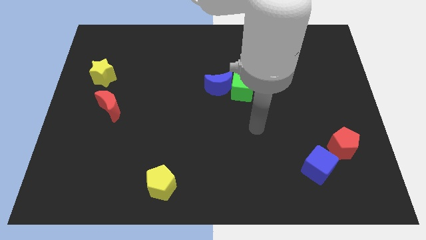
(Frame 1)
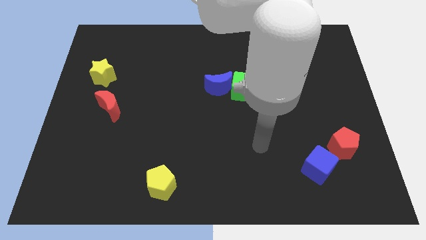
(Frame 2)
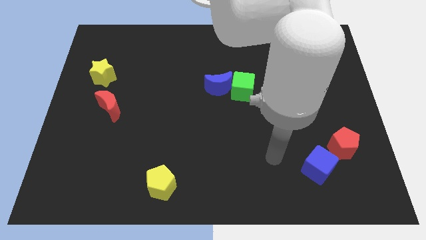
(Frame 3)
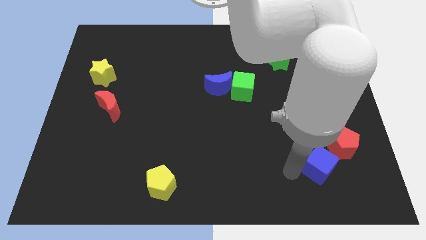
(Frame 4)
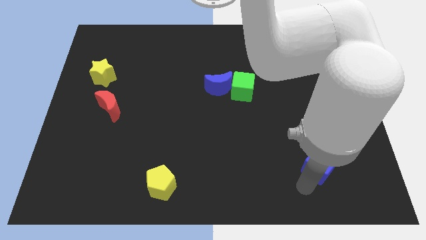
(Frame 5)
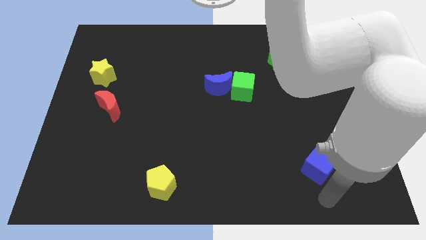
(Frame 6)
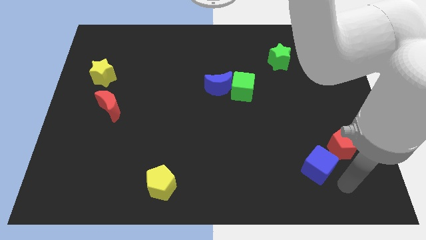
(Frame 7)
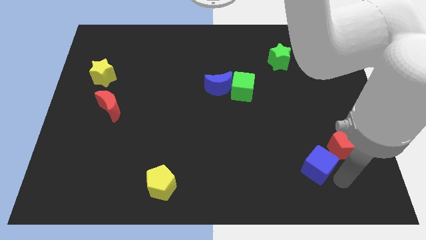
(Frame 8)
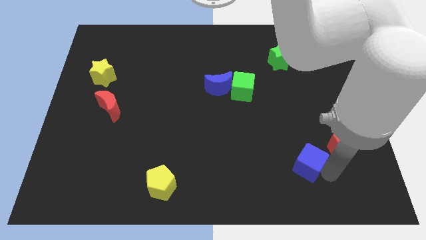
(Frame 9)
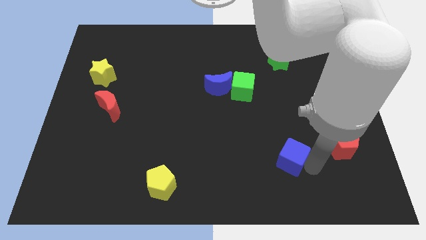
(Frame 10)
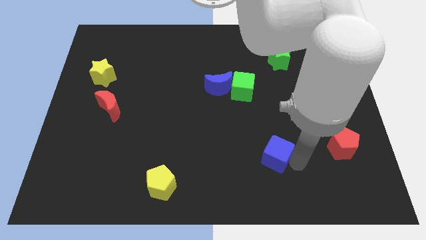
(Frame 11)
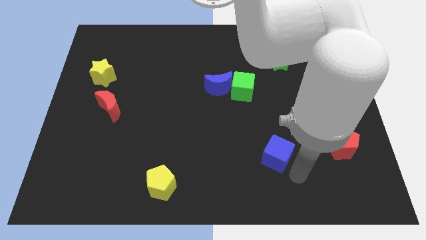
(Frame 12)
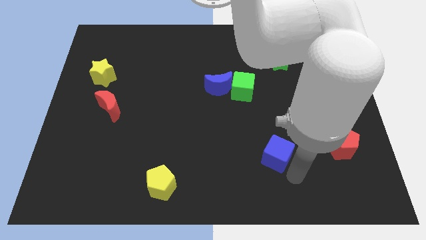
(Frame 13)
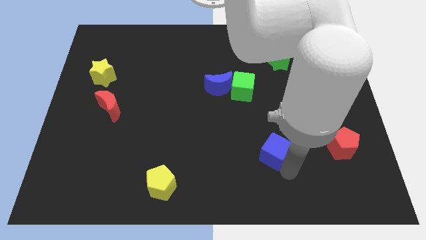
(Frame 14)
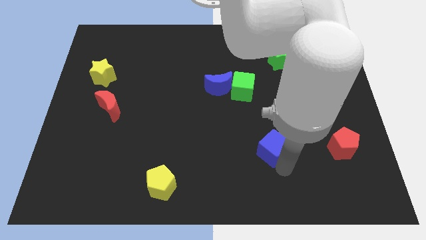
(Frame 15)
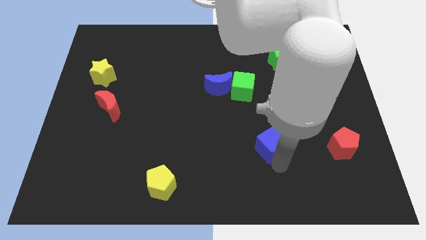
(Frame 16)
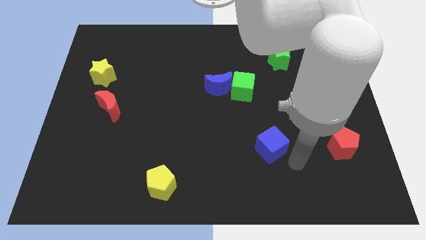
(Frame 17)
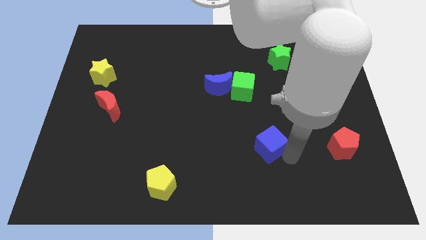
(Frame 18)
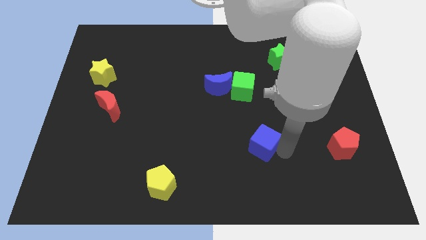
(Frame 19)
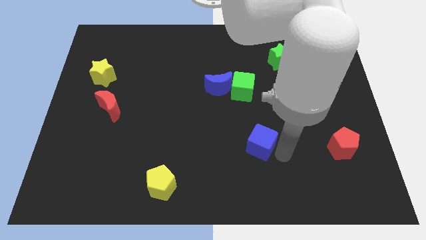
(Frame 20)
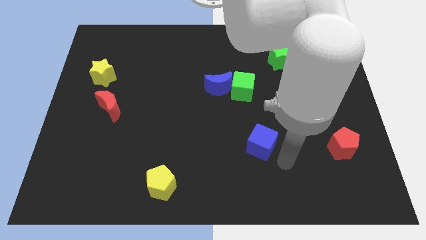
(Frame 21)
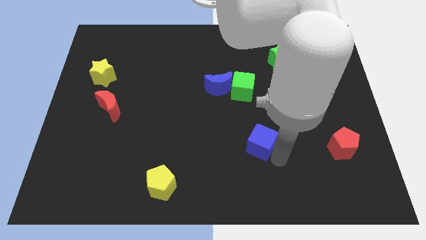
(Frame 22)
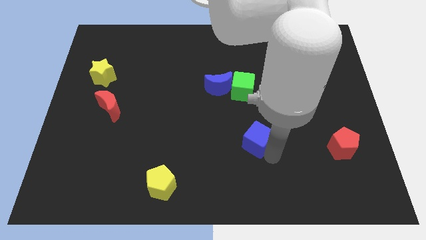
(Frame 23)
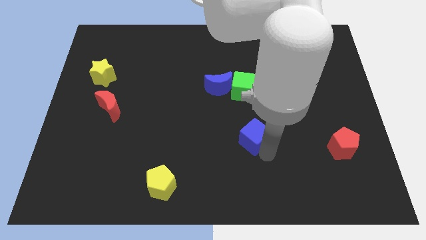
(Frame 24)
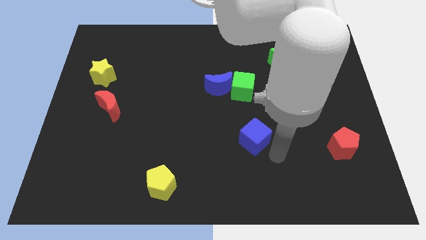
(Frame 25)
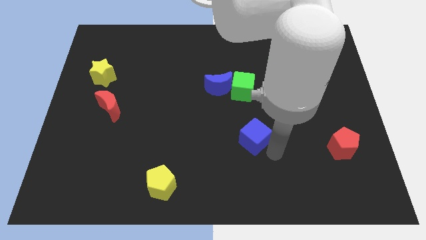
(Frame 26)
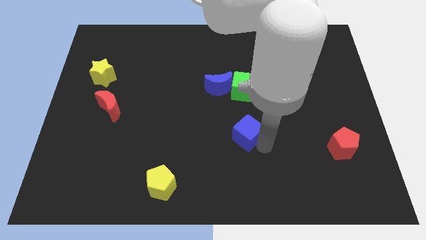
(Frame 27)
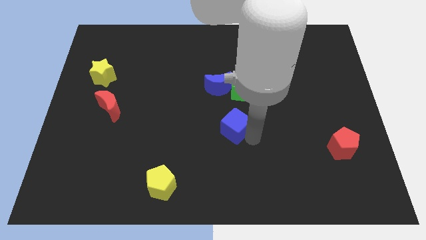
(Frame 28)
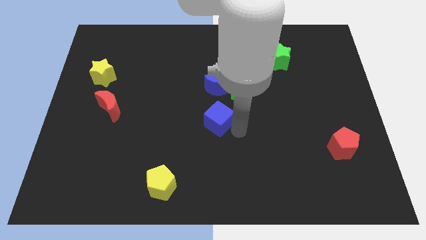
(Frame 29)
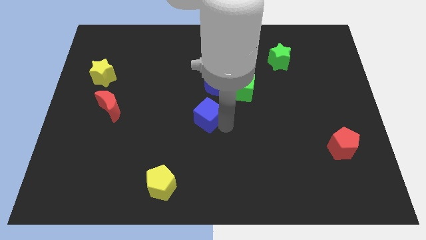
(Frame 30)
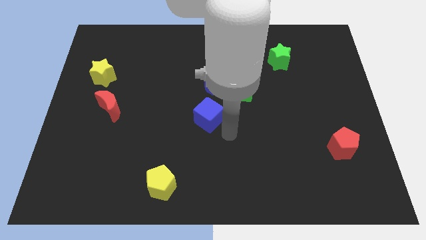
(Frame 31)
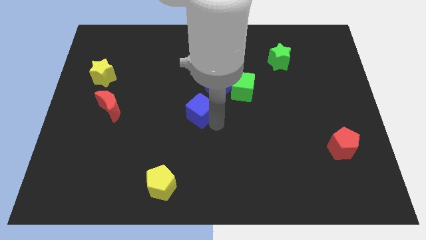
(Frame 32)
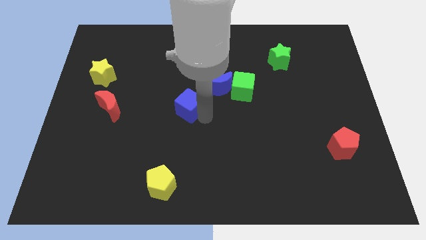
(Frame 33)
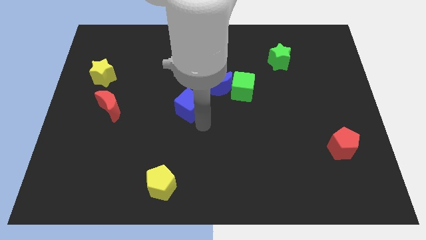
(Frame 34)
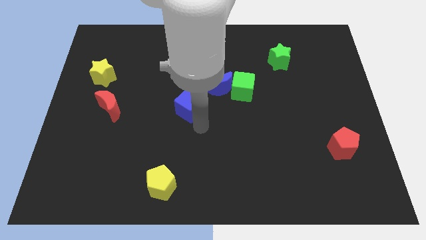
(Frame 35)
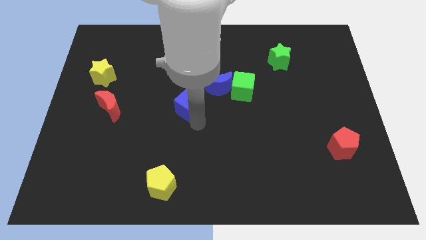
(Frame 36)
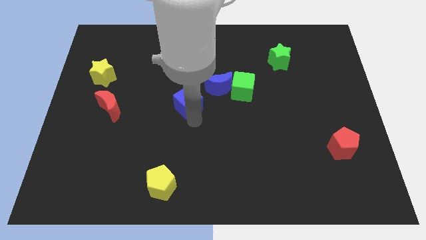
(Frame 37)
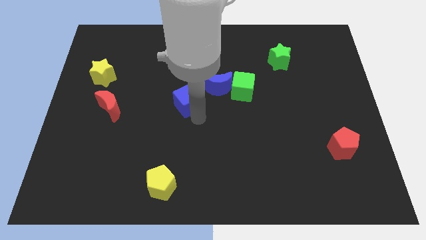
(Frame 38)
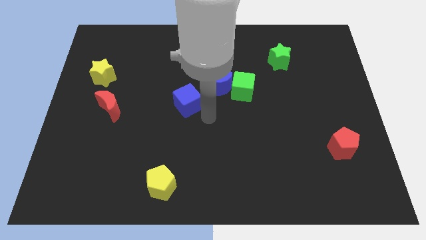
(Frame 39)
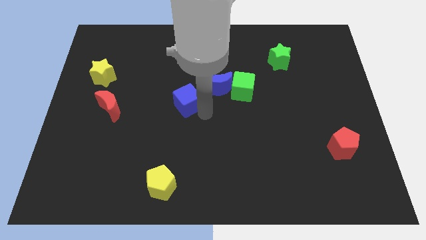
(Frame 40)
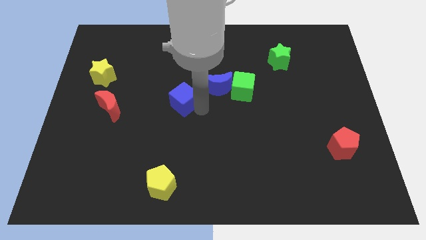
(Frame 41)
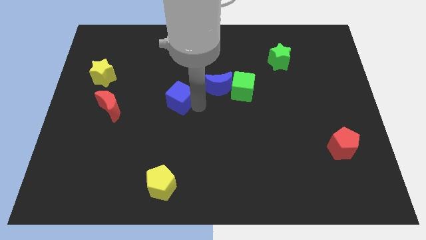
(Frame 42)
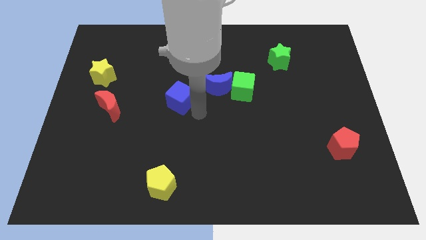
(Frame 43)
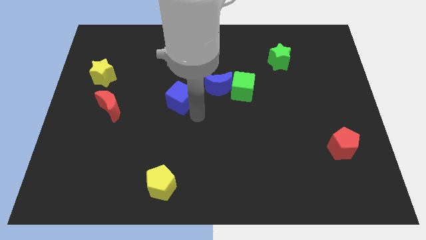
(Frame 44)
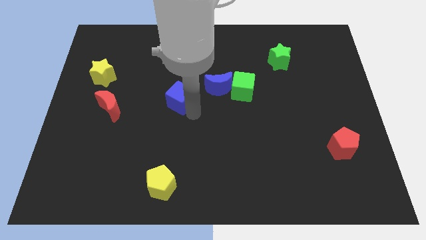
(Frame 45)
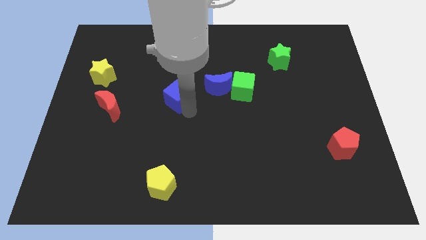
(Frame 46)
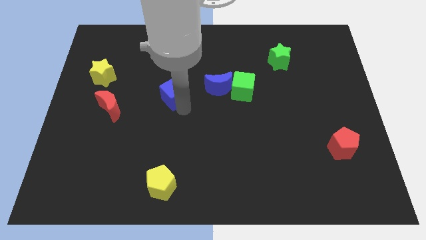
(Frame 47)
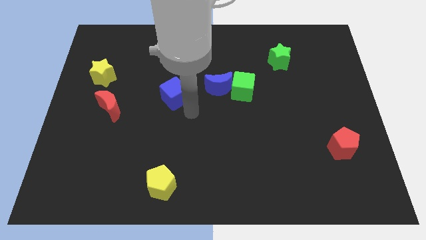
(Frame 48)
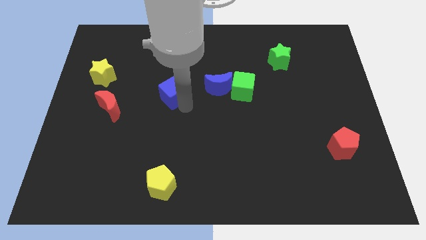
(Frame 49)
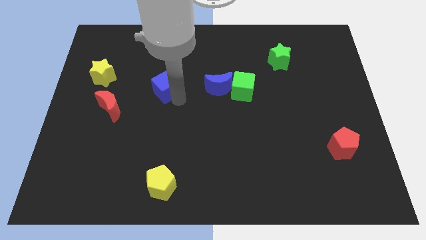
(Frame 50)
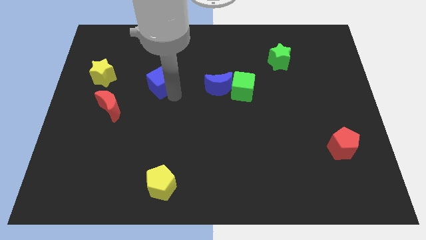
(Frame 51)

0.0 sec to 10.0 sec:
push the blue cube right of the yellow star

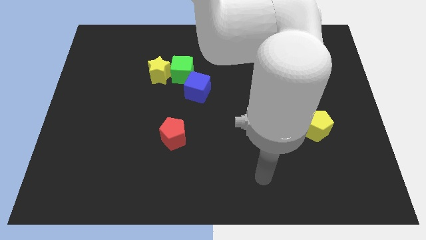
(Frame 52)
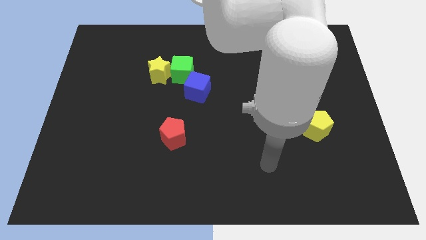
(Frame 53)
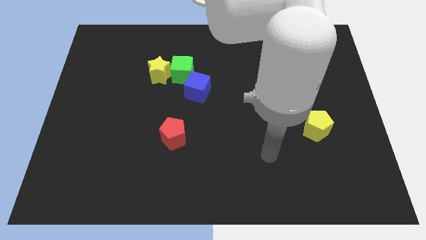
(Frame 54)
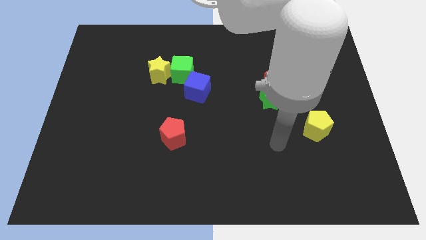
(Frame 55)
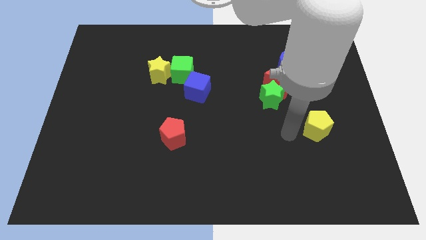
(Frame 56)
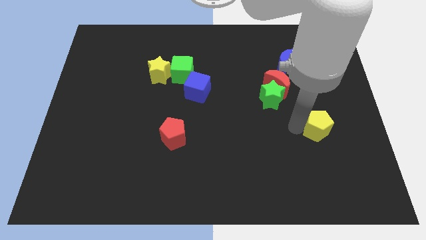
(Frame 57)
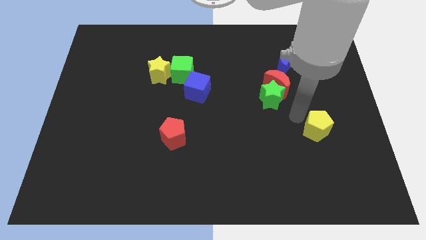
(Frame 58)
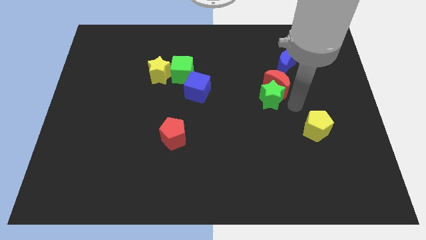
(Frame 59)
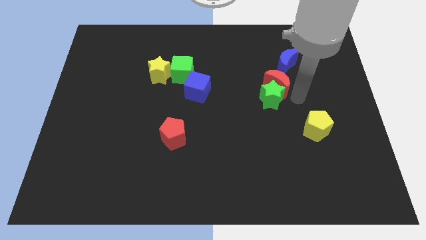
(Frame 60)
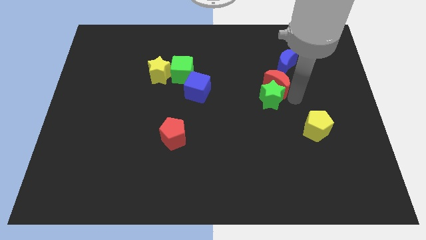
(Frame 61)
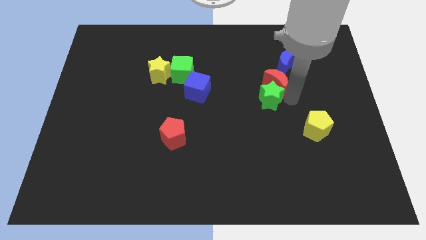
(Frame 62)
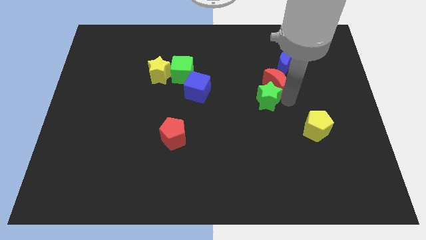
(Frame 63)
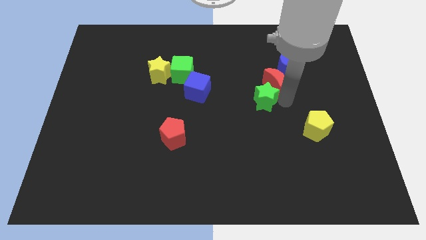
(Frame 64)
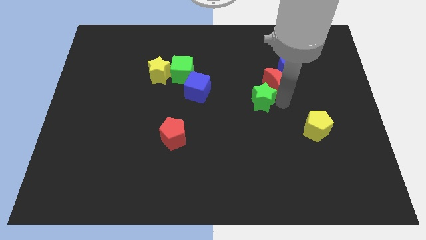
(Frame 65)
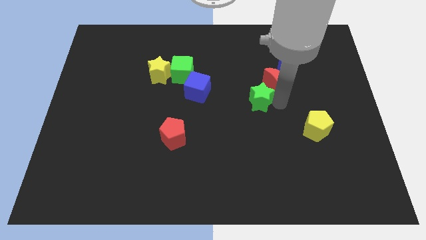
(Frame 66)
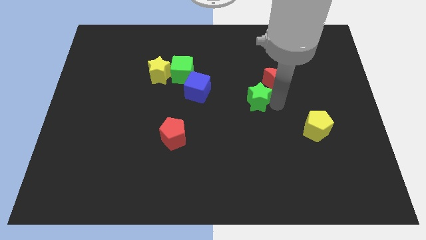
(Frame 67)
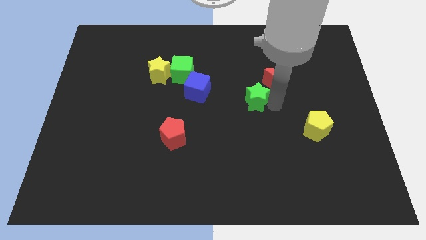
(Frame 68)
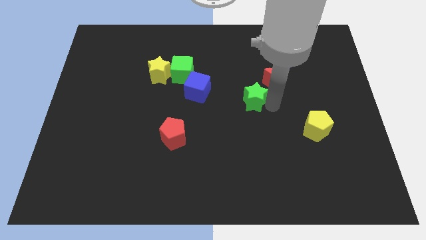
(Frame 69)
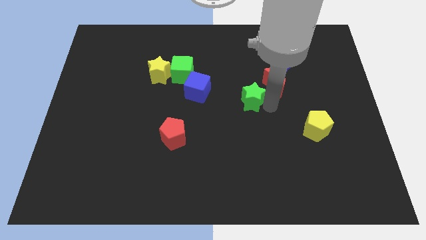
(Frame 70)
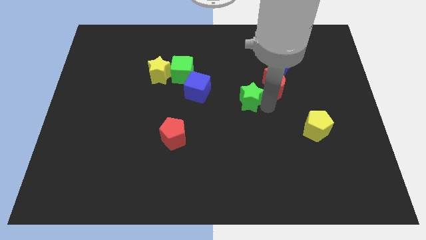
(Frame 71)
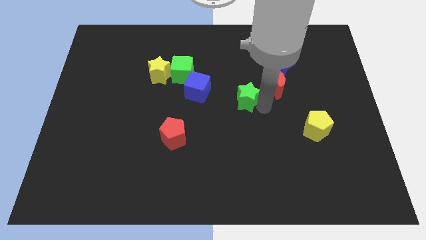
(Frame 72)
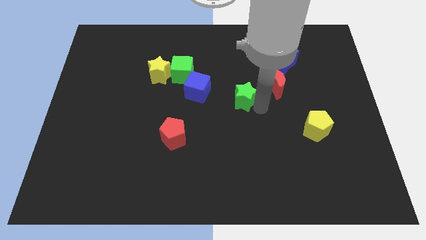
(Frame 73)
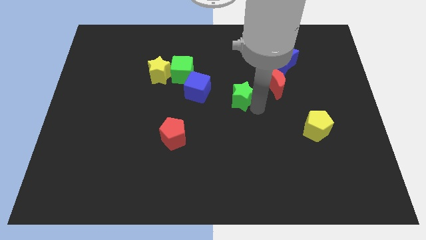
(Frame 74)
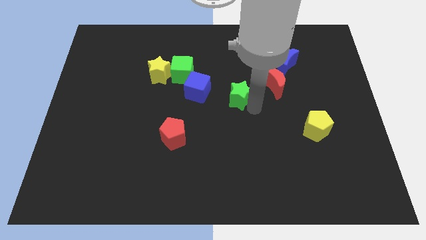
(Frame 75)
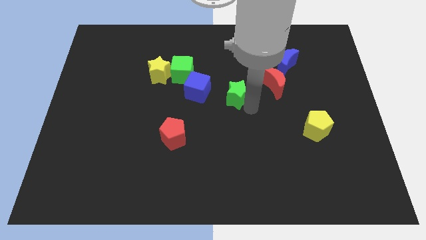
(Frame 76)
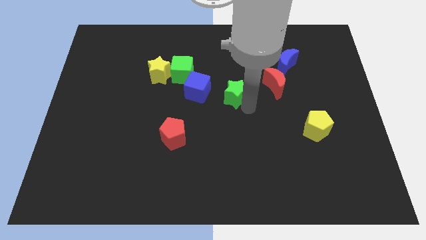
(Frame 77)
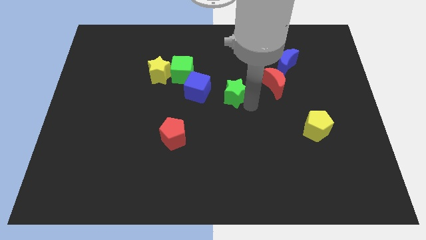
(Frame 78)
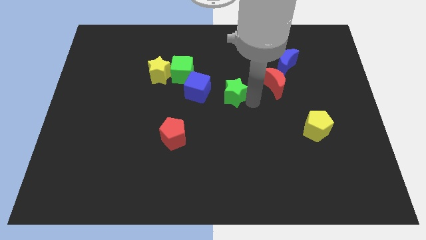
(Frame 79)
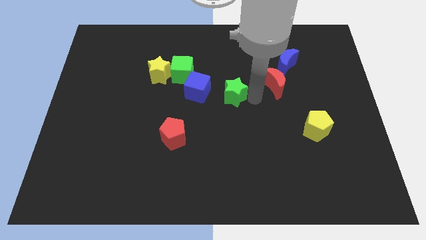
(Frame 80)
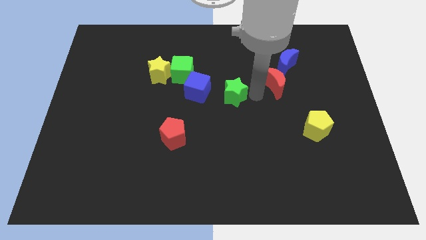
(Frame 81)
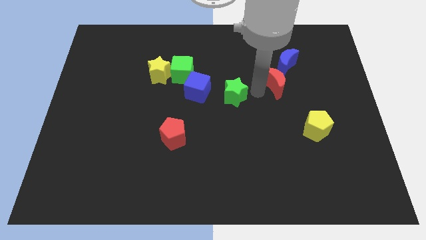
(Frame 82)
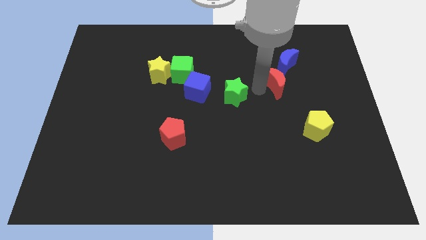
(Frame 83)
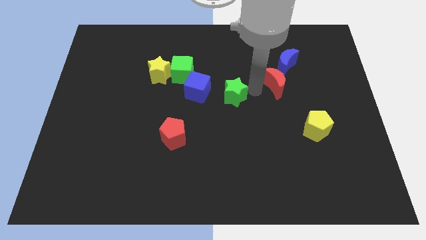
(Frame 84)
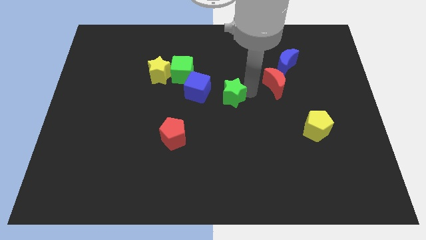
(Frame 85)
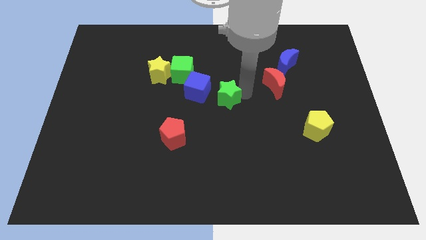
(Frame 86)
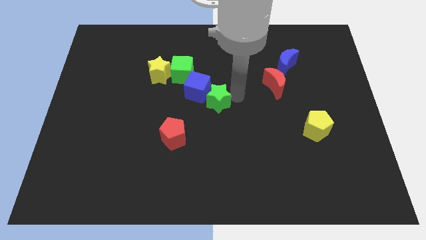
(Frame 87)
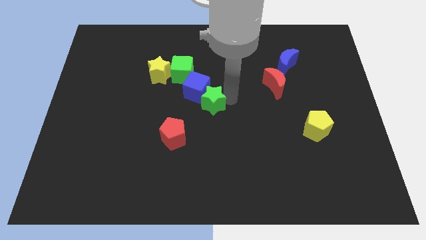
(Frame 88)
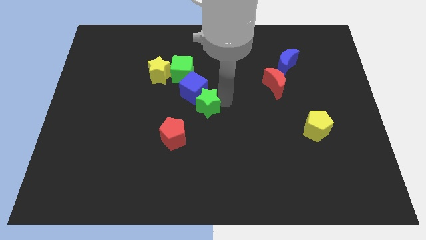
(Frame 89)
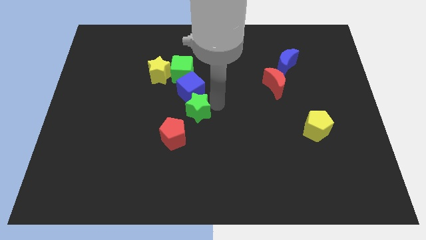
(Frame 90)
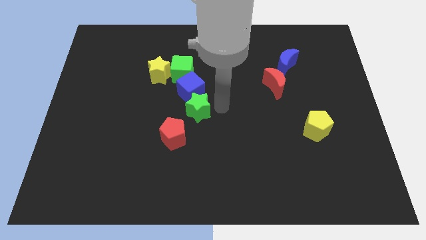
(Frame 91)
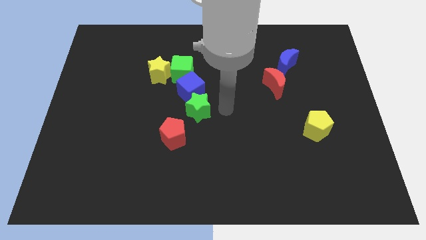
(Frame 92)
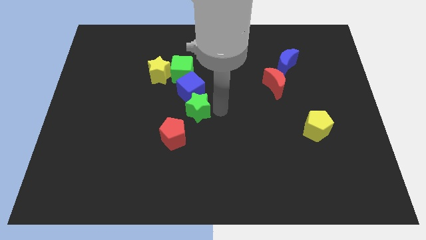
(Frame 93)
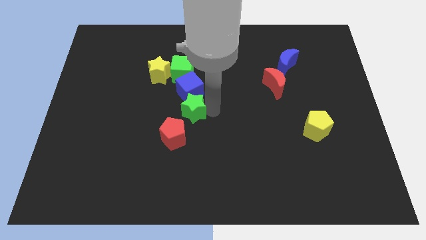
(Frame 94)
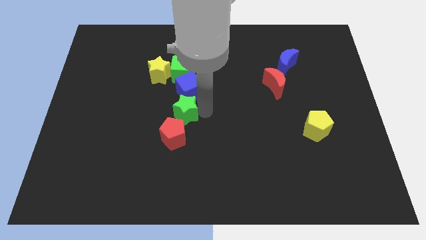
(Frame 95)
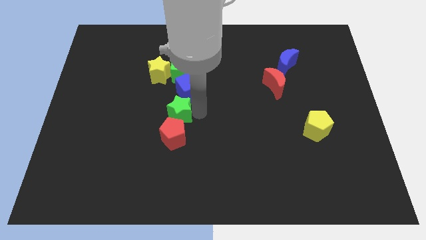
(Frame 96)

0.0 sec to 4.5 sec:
move the green star to the top left side of the red pentagon
